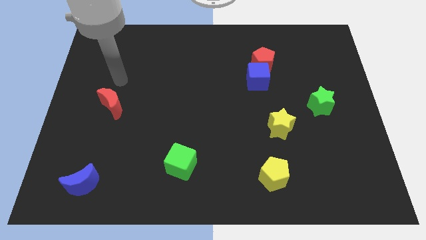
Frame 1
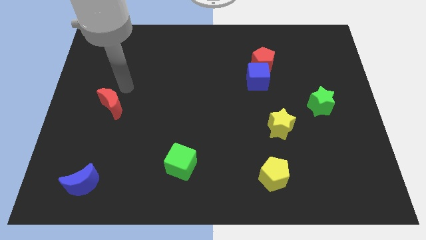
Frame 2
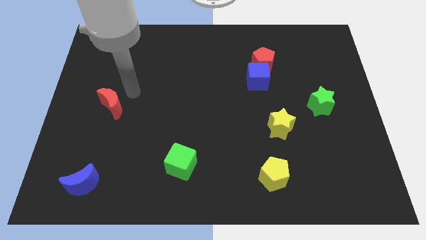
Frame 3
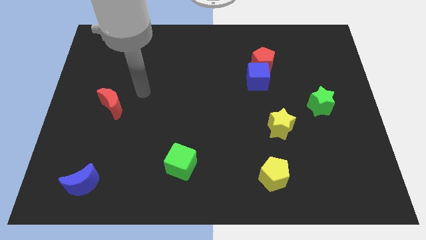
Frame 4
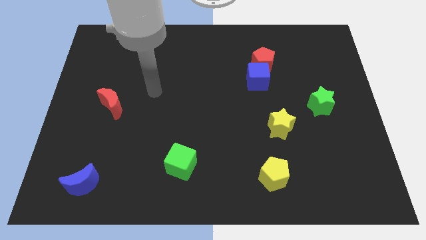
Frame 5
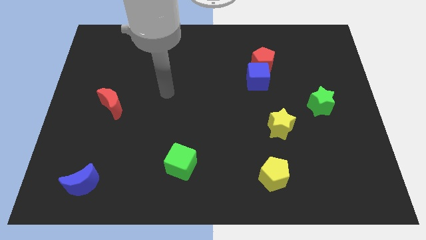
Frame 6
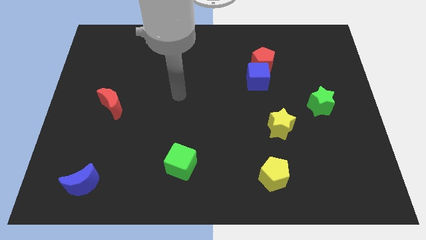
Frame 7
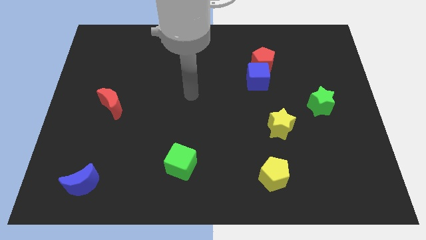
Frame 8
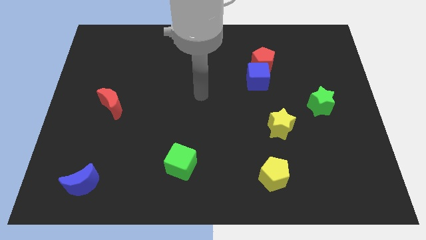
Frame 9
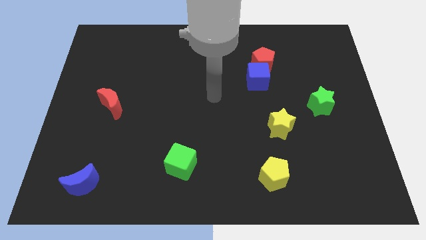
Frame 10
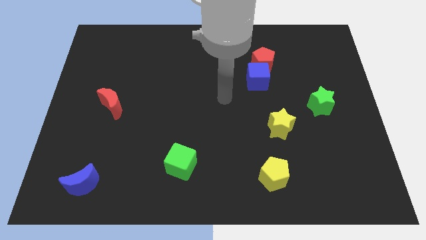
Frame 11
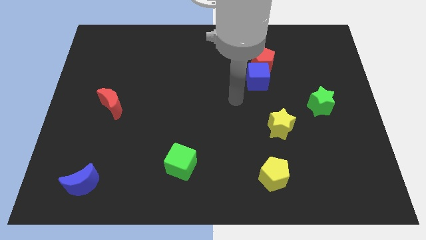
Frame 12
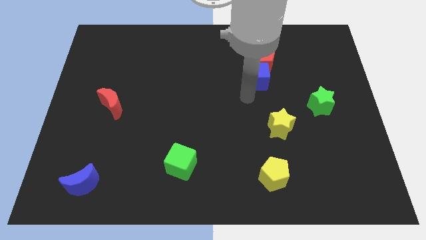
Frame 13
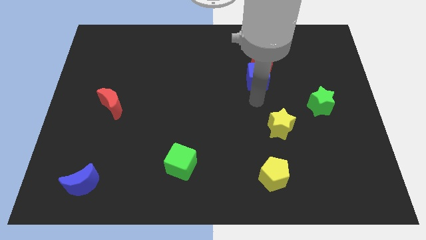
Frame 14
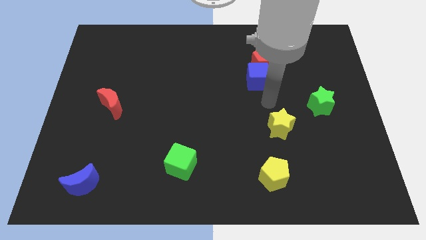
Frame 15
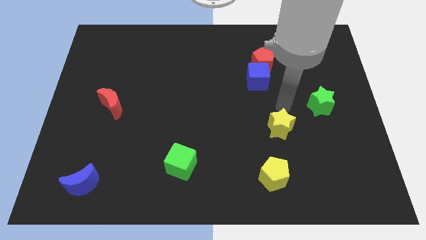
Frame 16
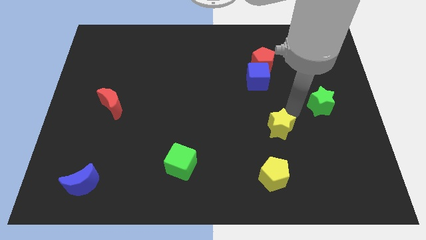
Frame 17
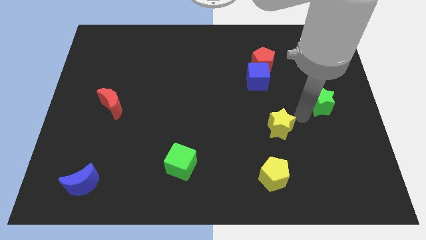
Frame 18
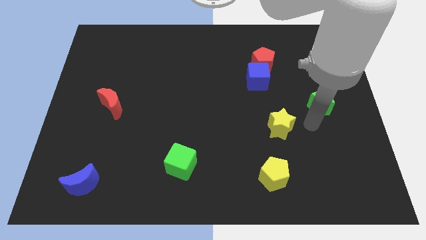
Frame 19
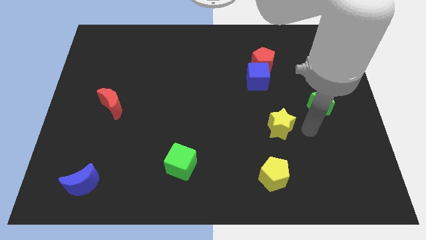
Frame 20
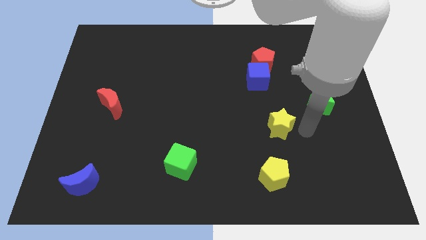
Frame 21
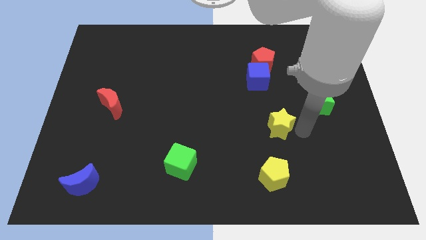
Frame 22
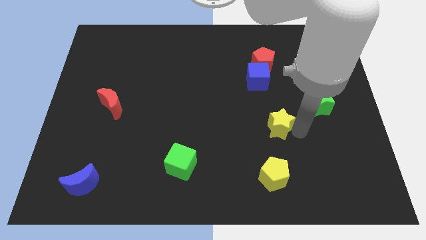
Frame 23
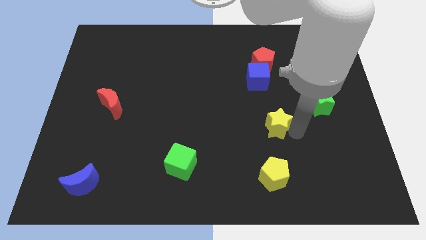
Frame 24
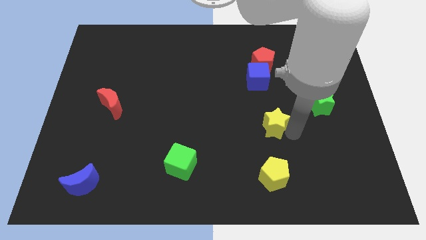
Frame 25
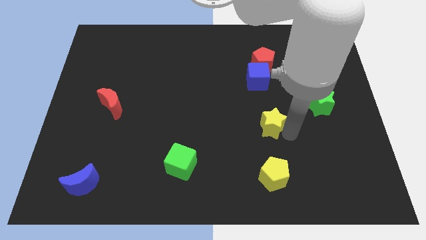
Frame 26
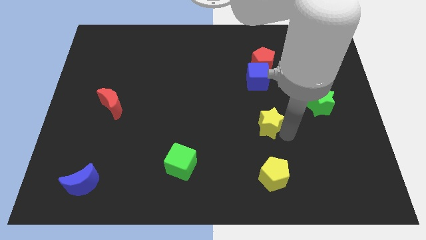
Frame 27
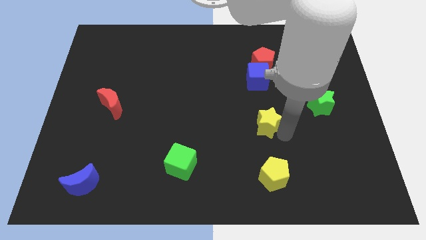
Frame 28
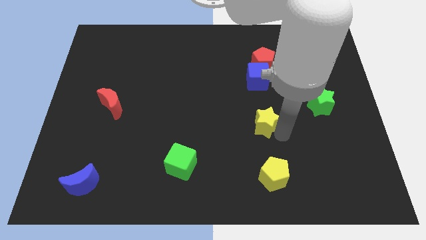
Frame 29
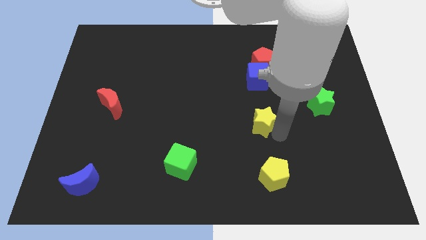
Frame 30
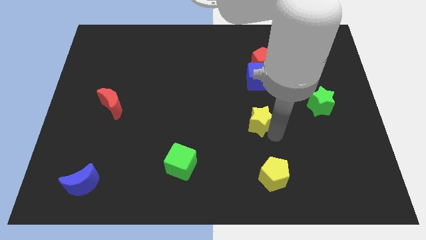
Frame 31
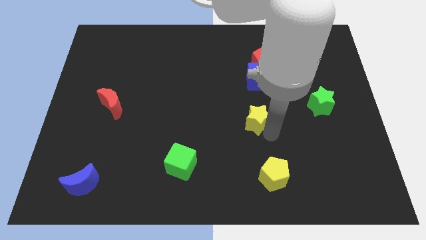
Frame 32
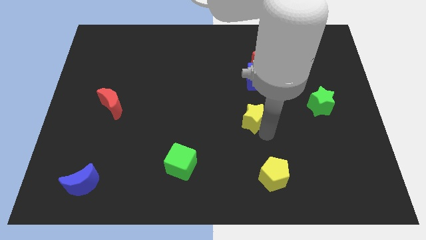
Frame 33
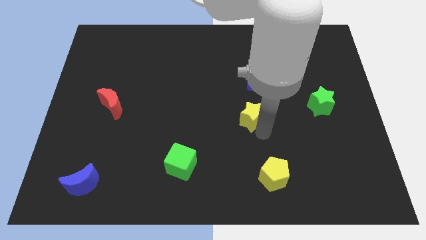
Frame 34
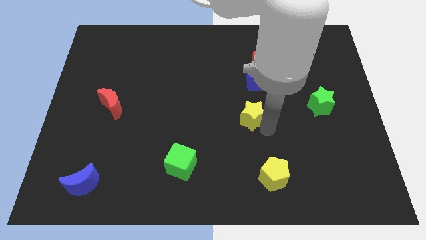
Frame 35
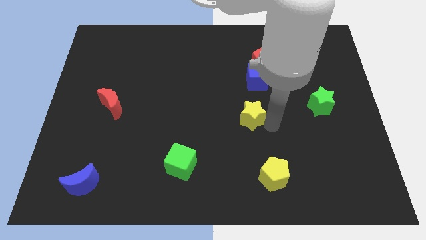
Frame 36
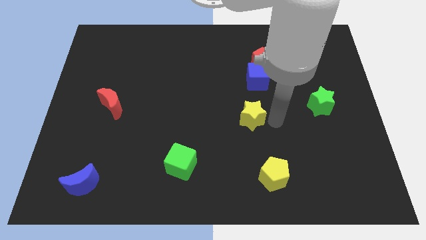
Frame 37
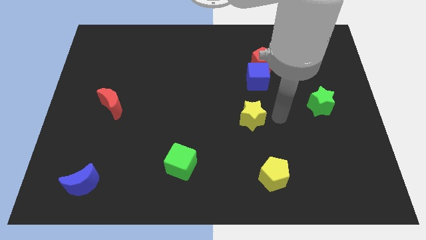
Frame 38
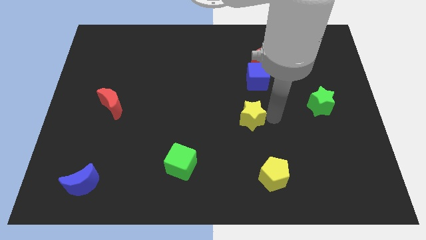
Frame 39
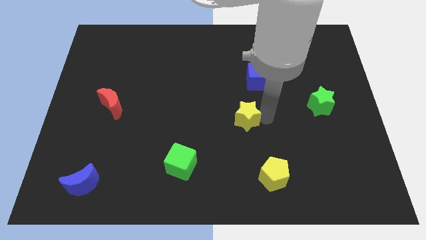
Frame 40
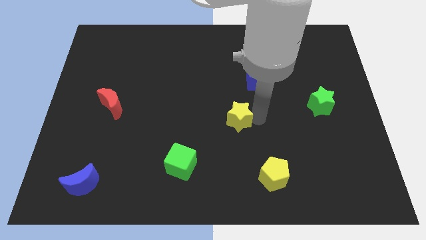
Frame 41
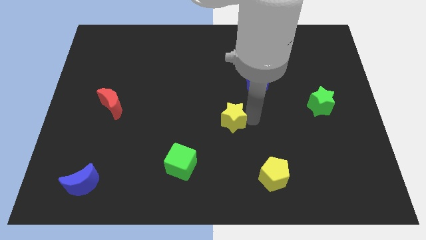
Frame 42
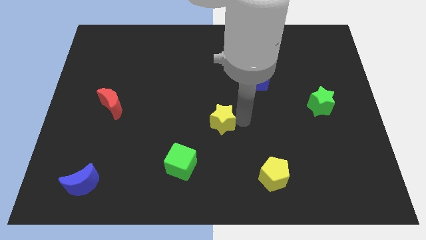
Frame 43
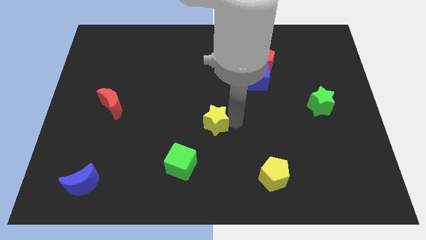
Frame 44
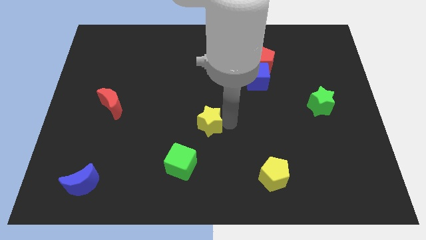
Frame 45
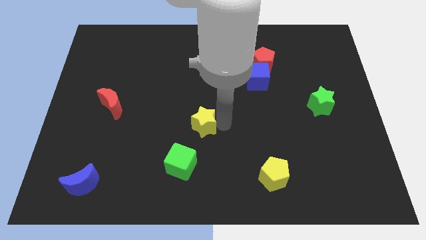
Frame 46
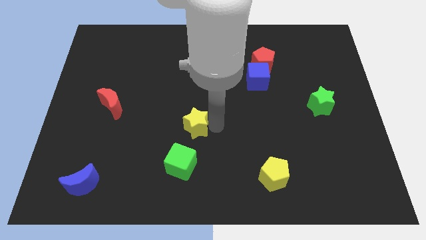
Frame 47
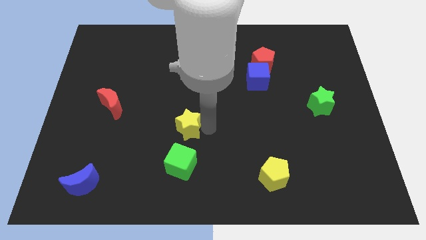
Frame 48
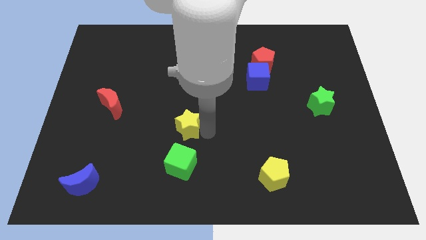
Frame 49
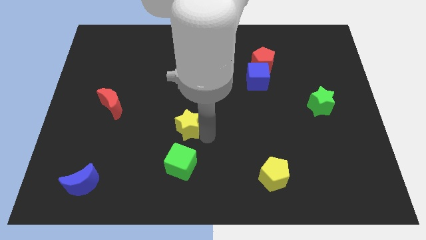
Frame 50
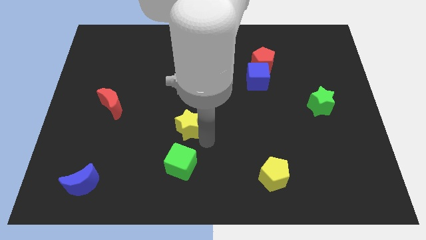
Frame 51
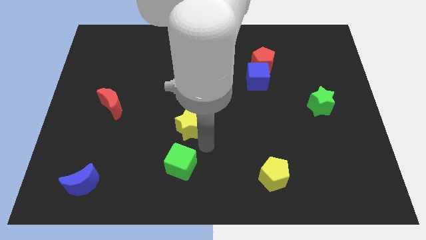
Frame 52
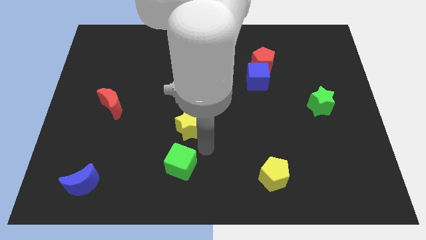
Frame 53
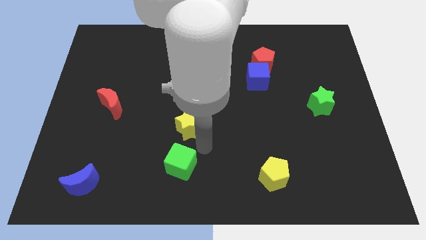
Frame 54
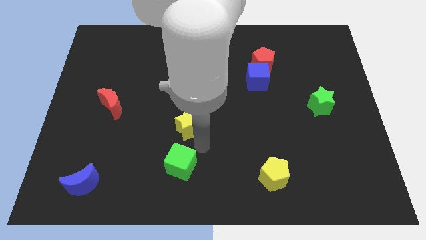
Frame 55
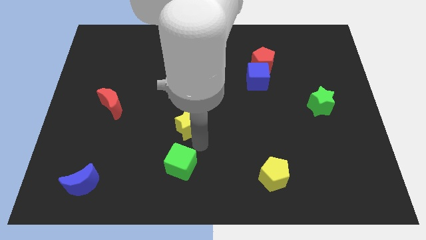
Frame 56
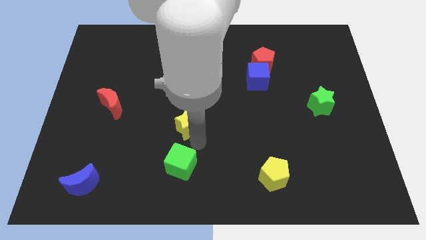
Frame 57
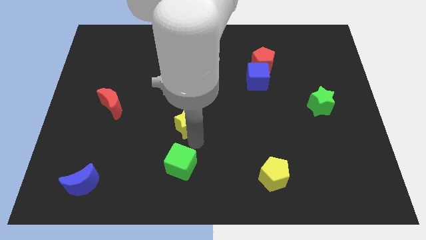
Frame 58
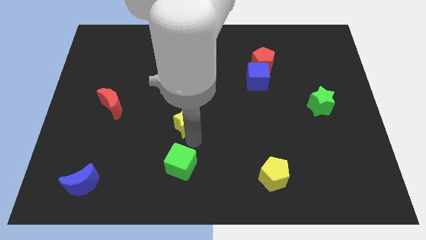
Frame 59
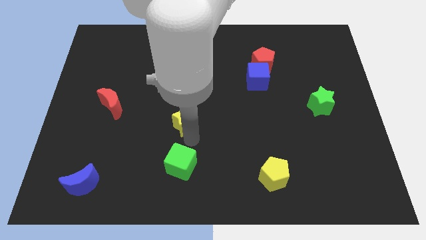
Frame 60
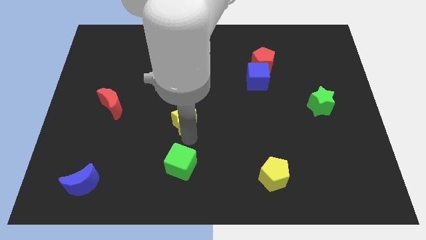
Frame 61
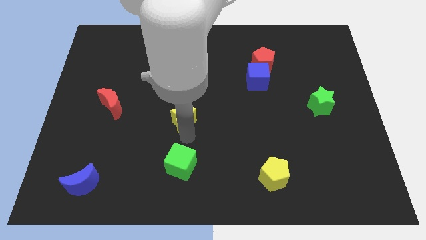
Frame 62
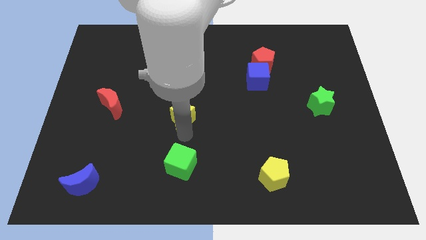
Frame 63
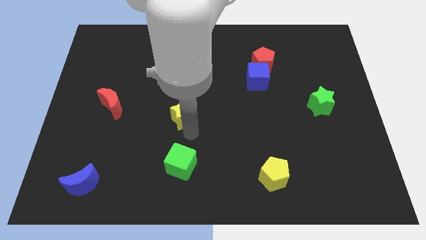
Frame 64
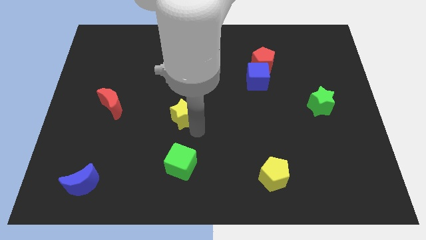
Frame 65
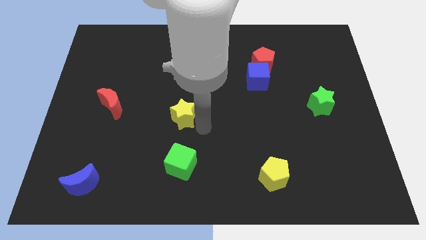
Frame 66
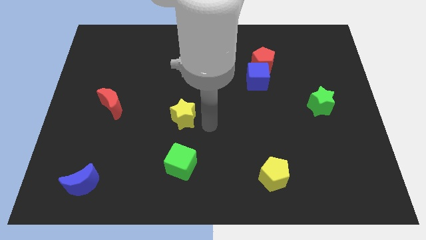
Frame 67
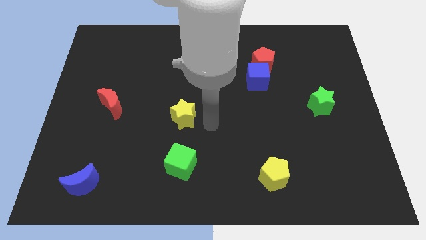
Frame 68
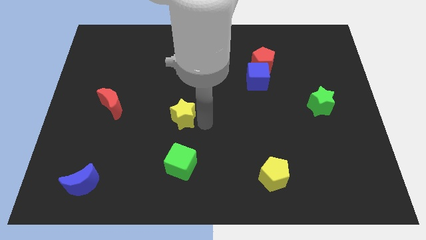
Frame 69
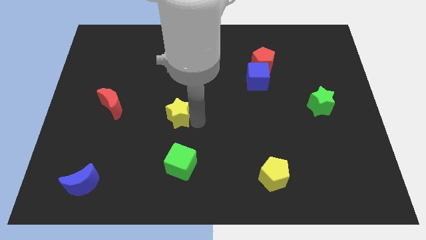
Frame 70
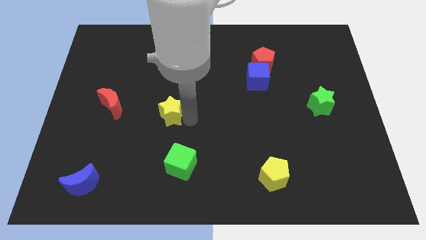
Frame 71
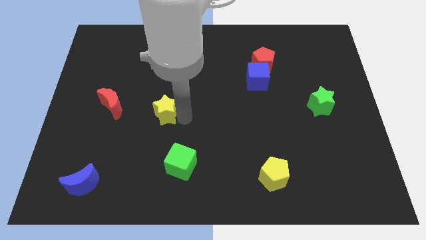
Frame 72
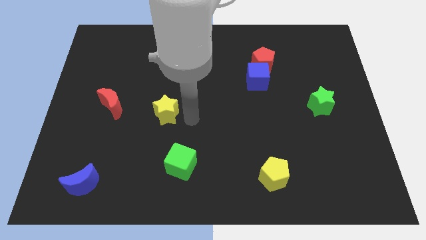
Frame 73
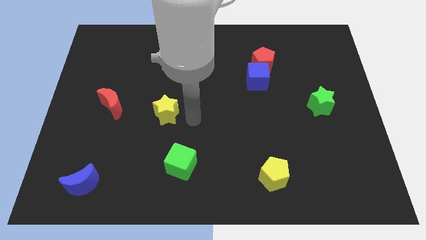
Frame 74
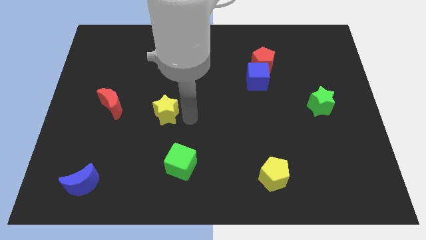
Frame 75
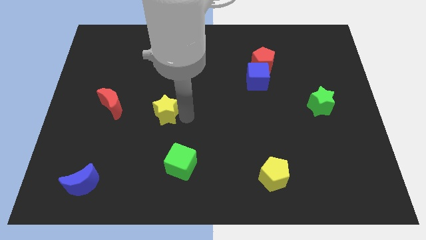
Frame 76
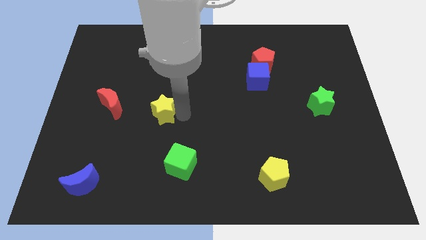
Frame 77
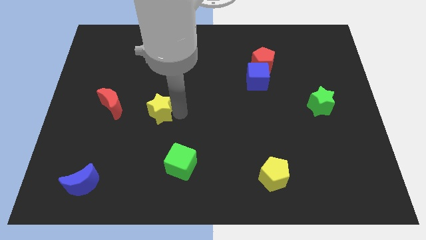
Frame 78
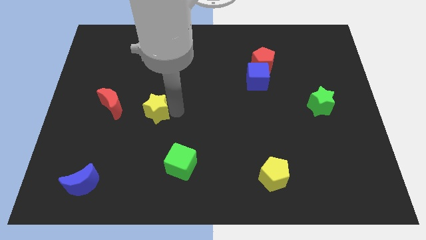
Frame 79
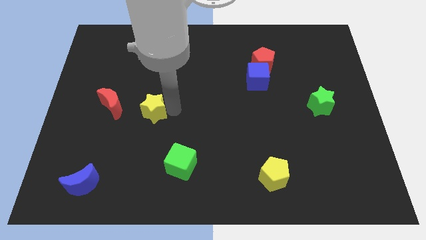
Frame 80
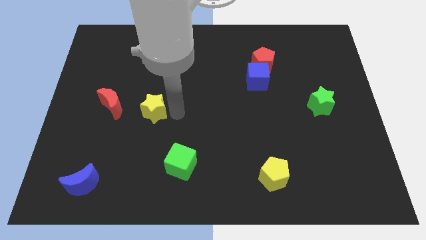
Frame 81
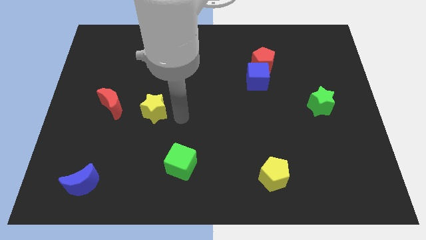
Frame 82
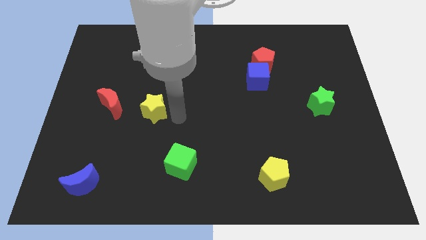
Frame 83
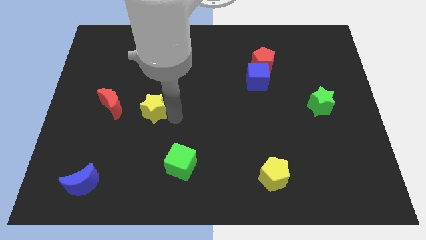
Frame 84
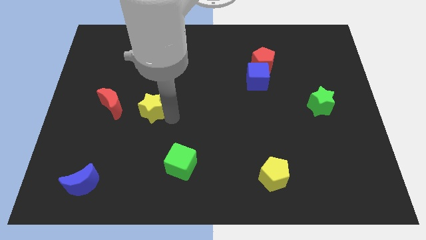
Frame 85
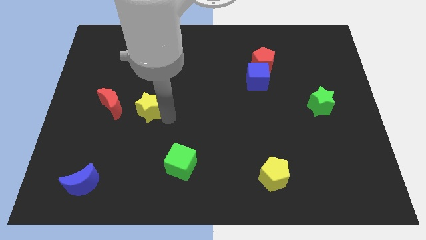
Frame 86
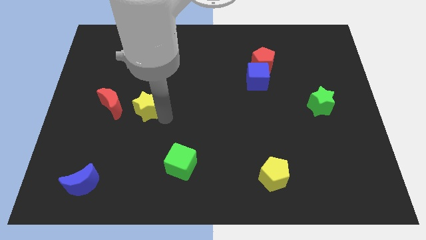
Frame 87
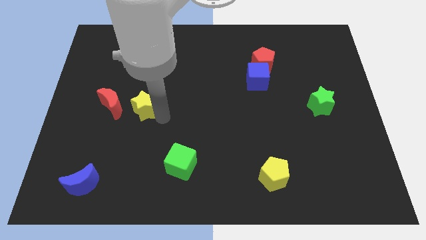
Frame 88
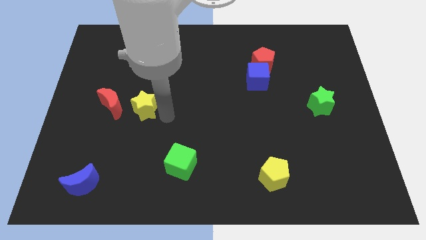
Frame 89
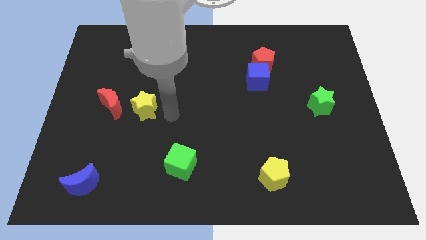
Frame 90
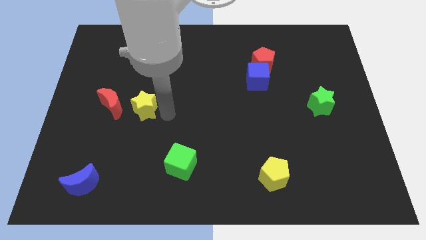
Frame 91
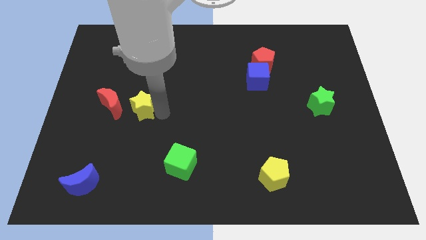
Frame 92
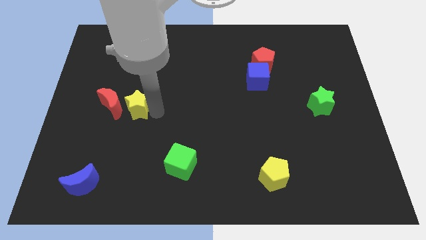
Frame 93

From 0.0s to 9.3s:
push the yellow star next to the red moon
